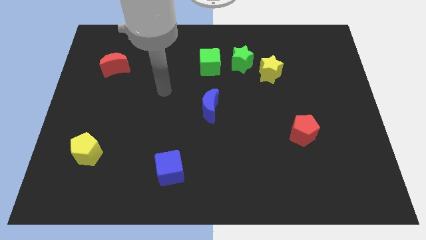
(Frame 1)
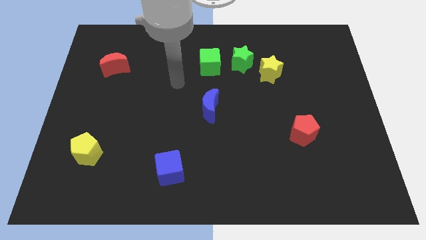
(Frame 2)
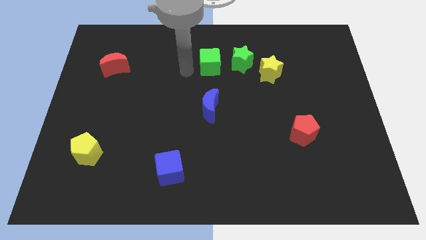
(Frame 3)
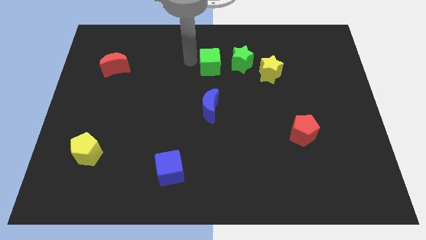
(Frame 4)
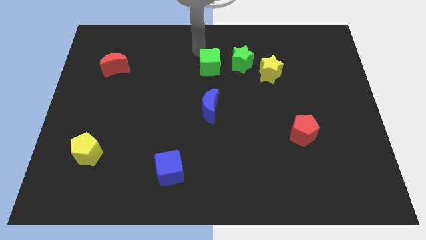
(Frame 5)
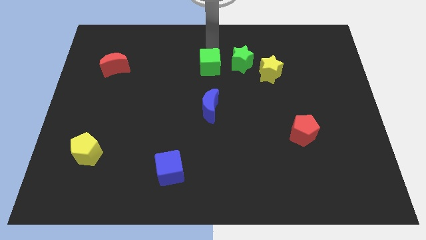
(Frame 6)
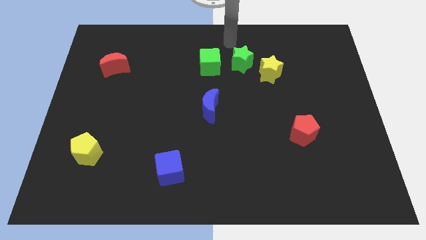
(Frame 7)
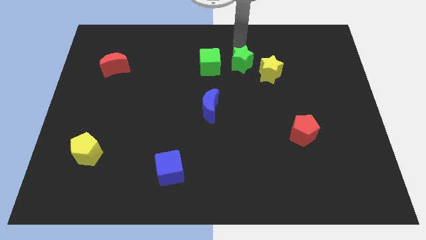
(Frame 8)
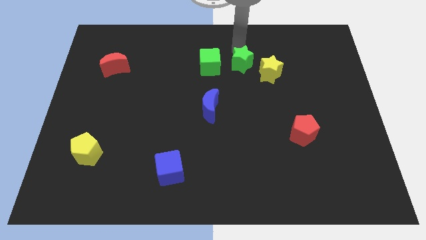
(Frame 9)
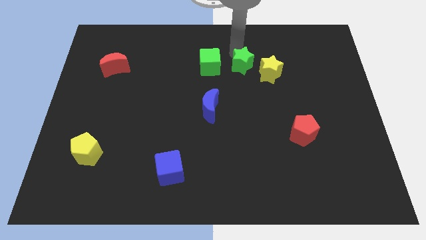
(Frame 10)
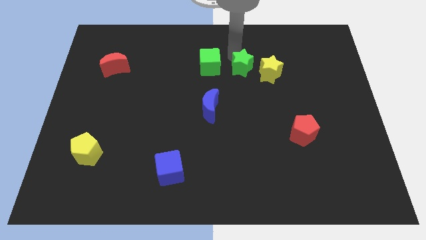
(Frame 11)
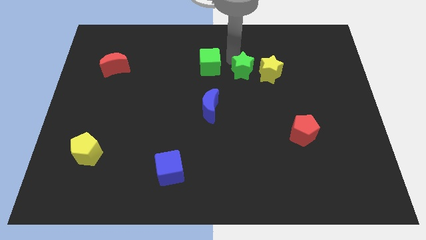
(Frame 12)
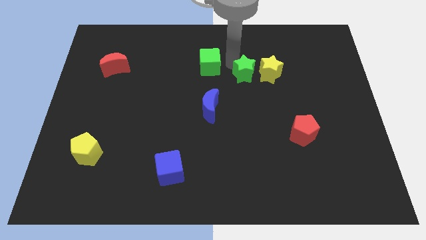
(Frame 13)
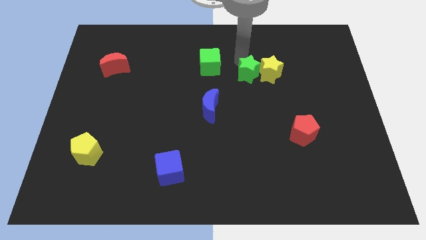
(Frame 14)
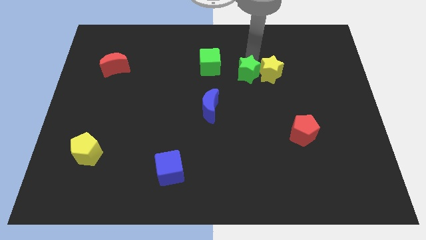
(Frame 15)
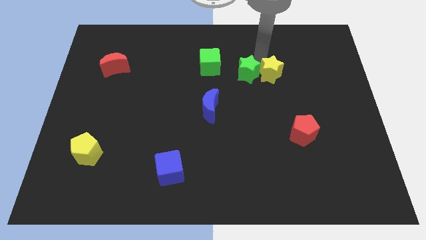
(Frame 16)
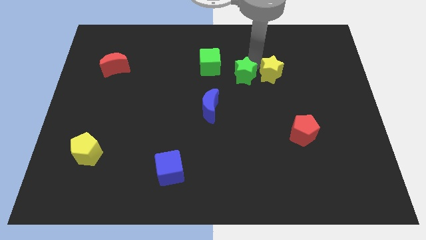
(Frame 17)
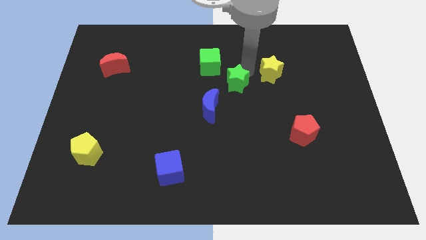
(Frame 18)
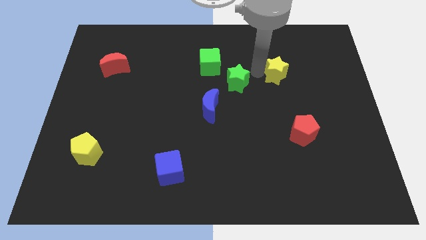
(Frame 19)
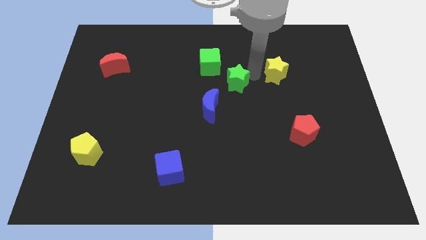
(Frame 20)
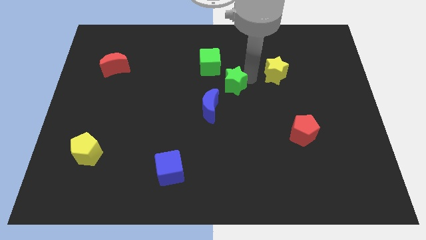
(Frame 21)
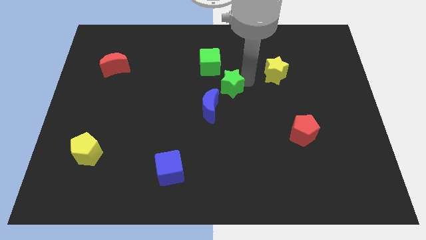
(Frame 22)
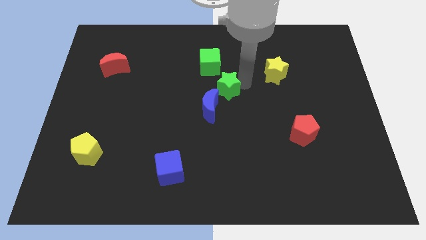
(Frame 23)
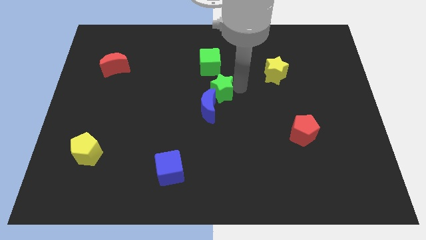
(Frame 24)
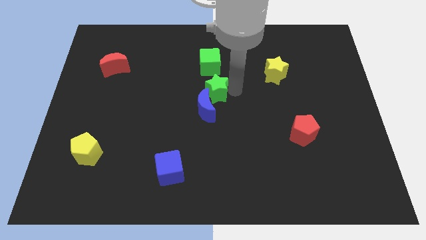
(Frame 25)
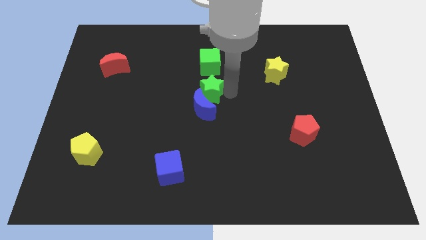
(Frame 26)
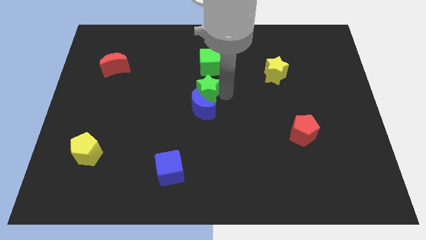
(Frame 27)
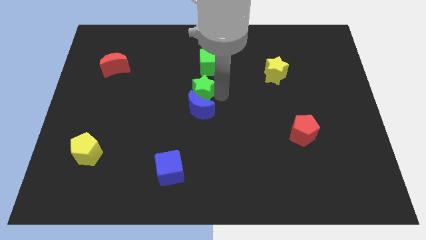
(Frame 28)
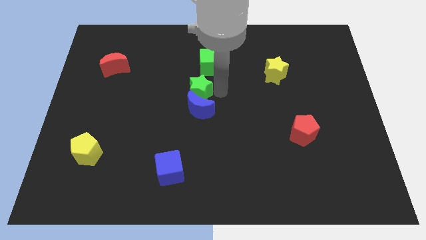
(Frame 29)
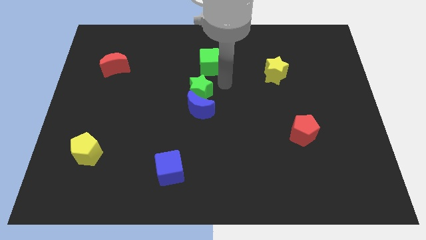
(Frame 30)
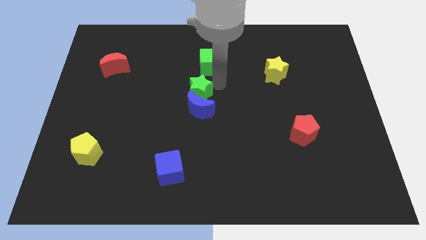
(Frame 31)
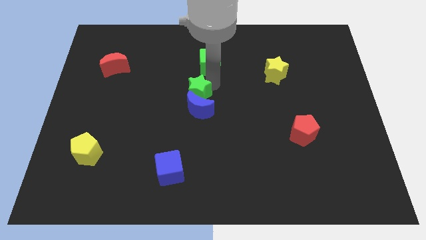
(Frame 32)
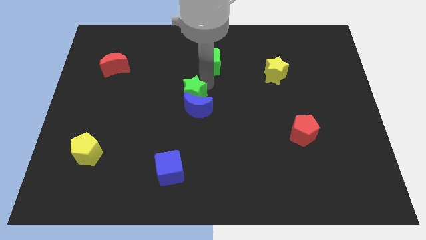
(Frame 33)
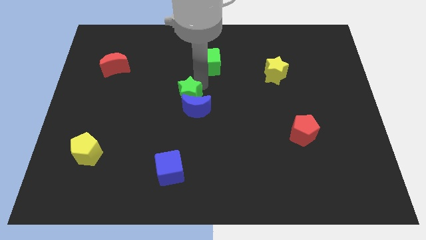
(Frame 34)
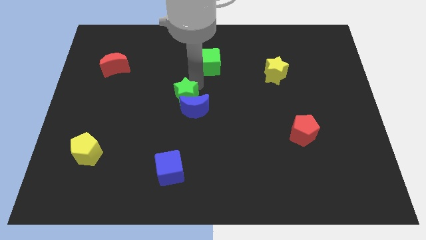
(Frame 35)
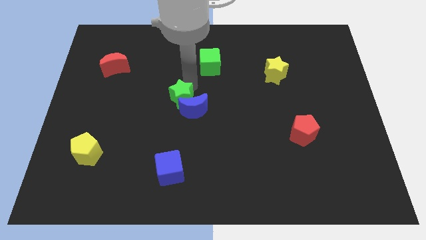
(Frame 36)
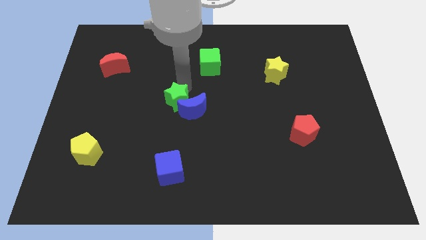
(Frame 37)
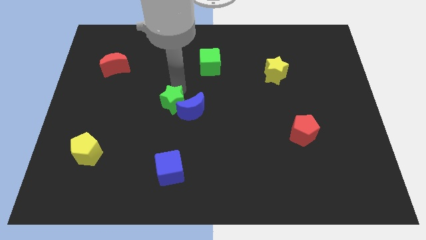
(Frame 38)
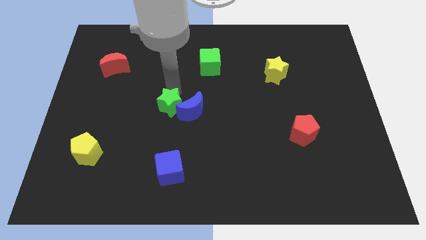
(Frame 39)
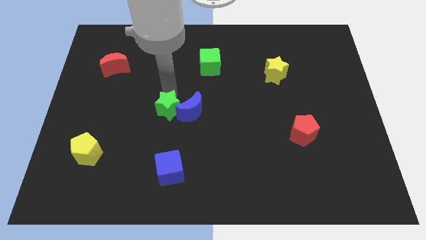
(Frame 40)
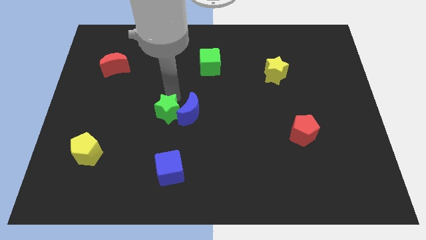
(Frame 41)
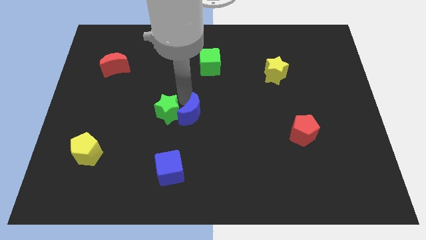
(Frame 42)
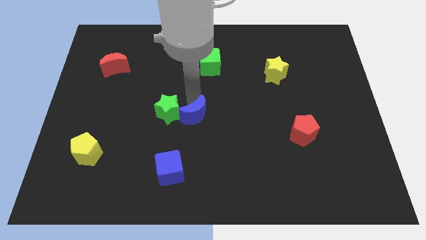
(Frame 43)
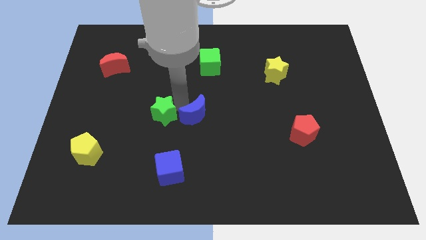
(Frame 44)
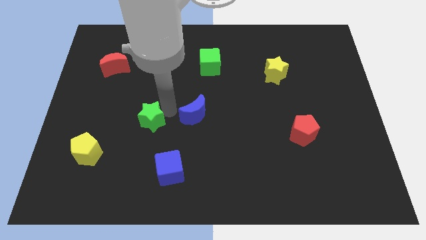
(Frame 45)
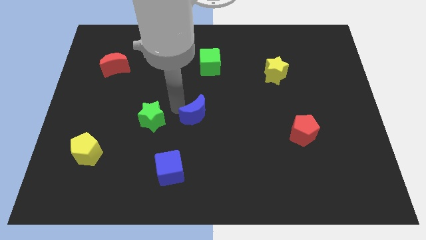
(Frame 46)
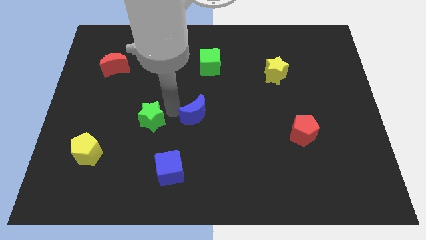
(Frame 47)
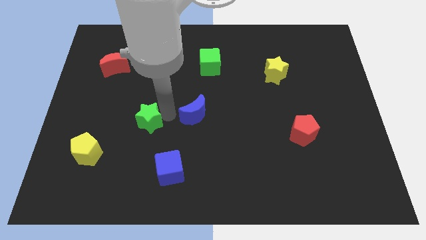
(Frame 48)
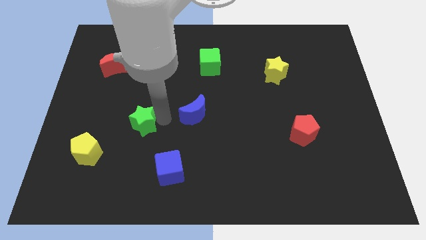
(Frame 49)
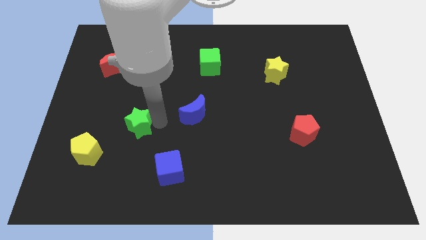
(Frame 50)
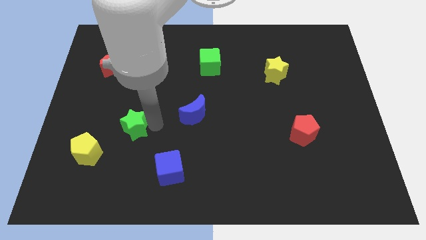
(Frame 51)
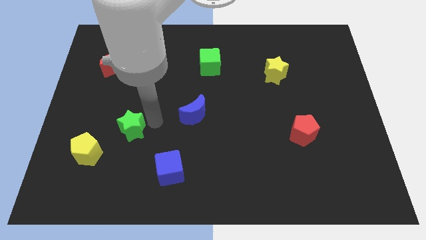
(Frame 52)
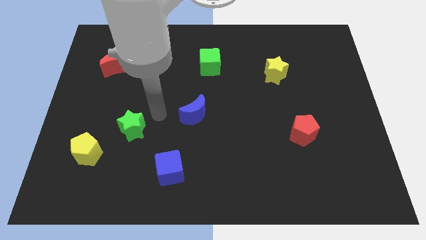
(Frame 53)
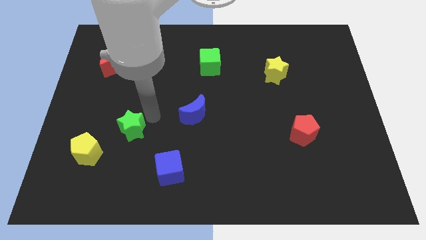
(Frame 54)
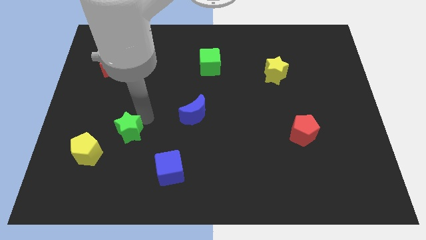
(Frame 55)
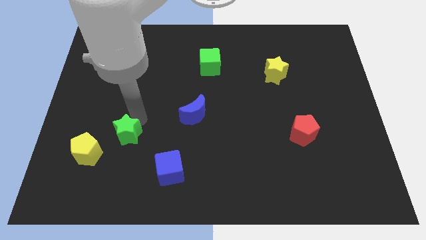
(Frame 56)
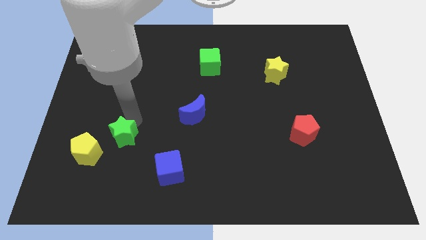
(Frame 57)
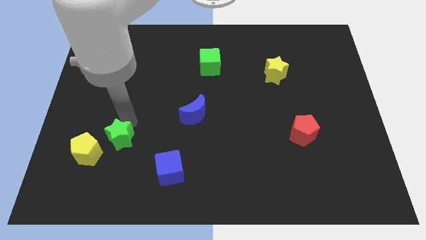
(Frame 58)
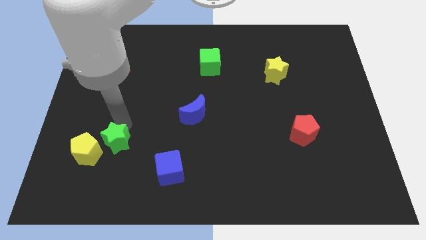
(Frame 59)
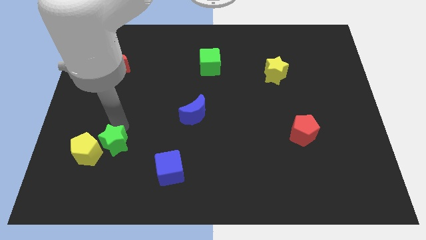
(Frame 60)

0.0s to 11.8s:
move the green star close to the yellow pentagon
